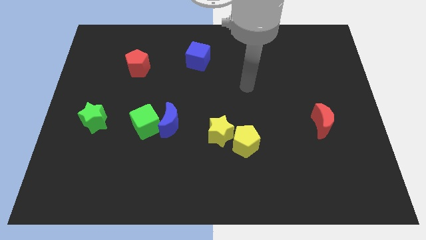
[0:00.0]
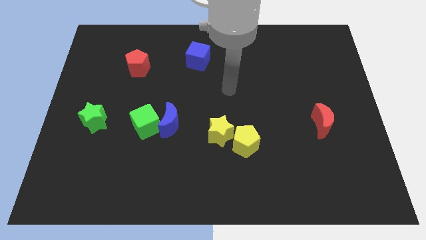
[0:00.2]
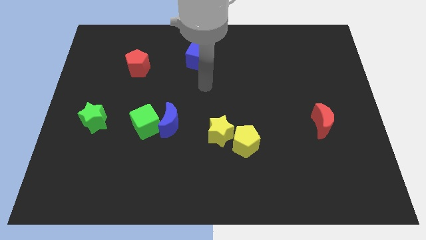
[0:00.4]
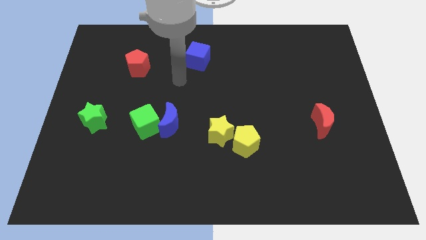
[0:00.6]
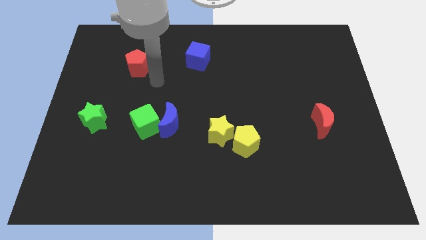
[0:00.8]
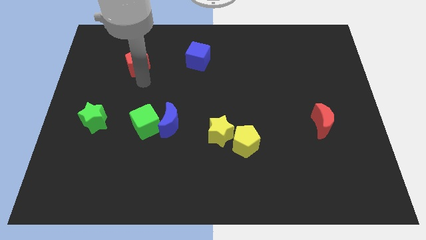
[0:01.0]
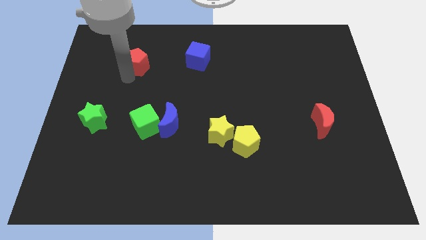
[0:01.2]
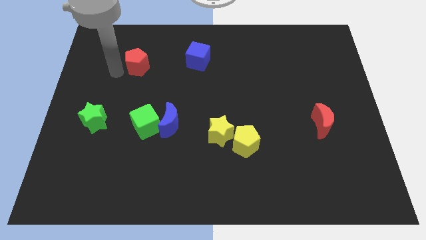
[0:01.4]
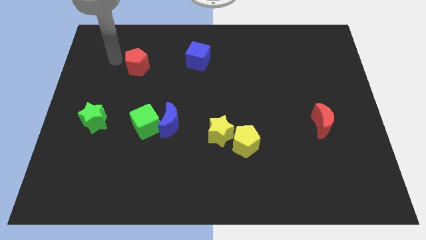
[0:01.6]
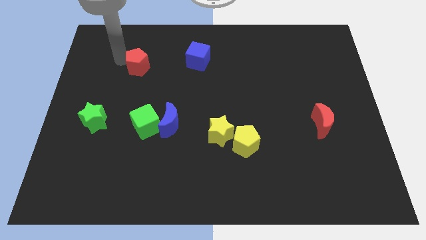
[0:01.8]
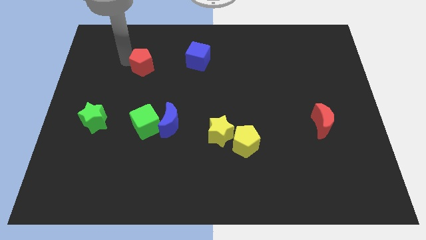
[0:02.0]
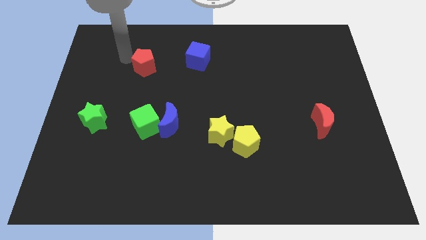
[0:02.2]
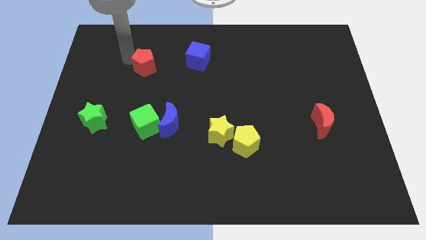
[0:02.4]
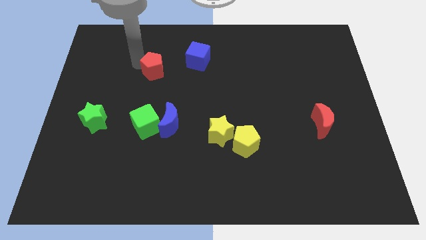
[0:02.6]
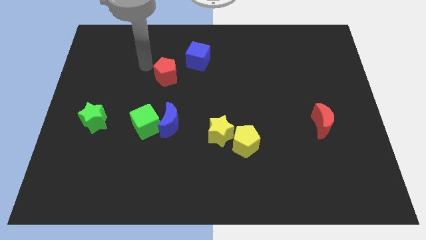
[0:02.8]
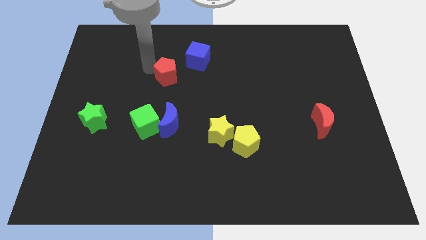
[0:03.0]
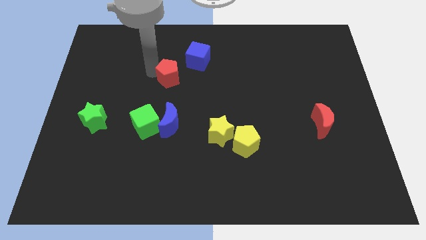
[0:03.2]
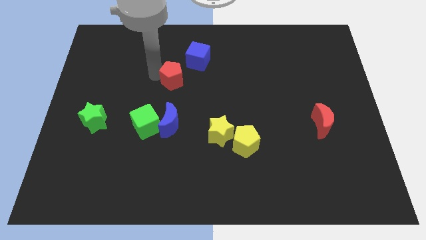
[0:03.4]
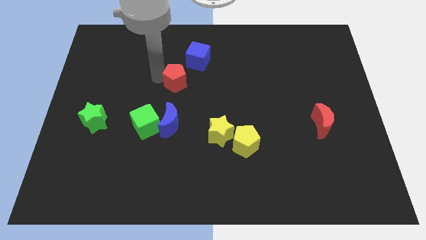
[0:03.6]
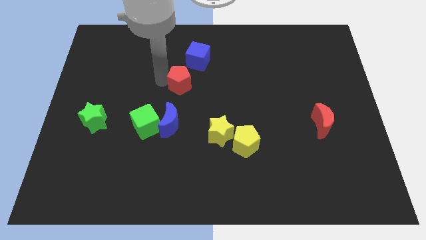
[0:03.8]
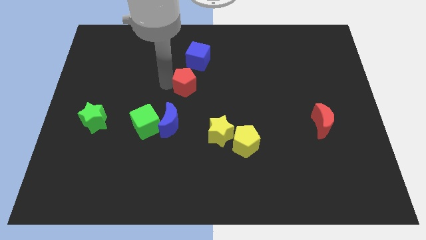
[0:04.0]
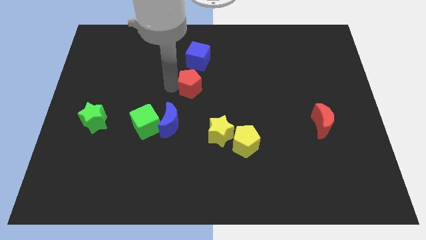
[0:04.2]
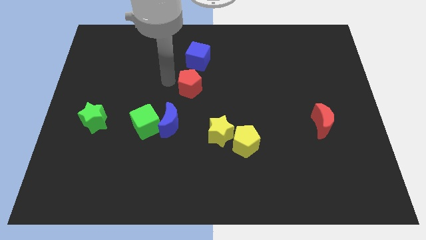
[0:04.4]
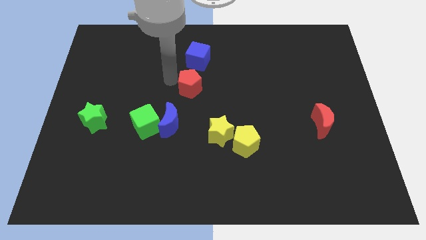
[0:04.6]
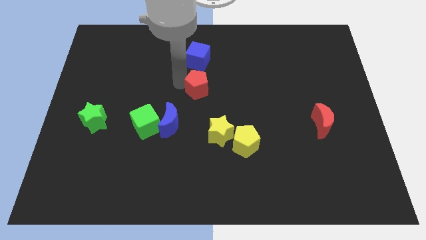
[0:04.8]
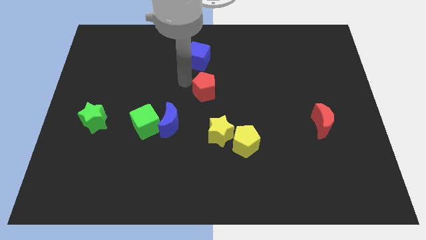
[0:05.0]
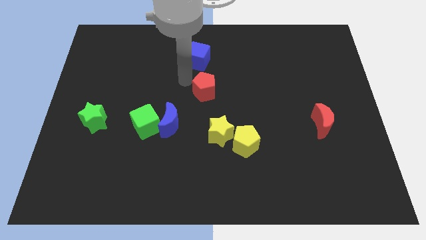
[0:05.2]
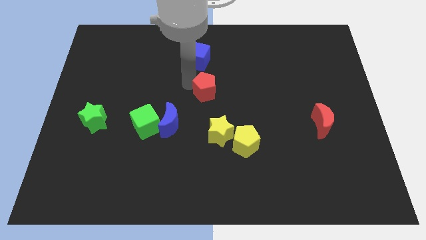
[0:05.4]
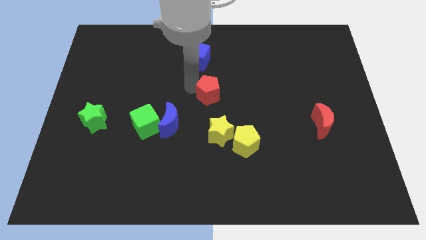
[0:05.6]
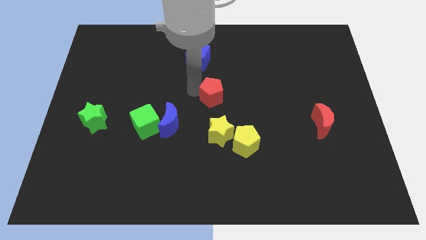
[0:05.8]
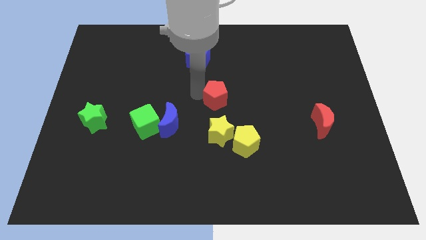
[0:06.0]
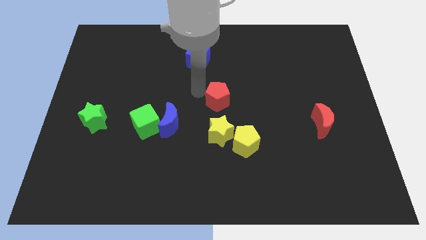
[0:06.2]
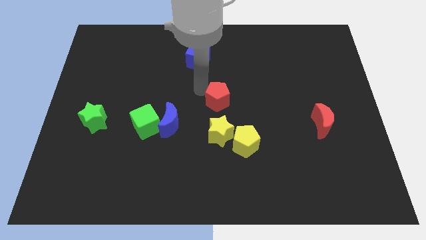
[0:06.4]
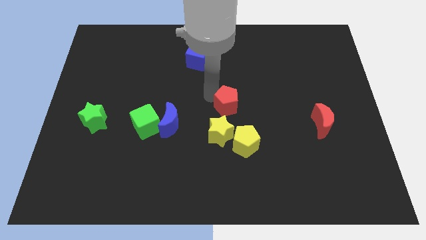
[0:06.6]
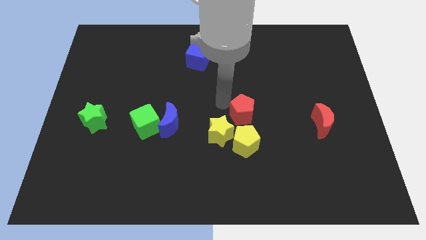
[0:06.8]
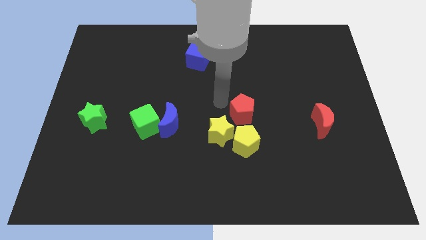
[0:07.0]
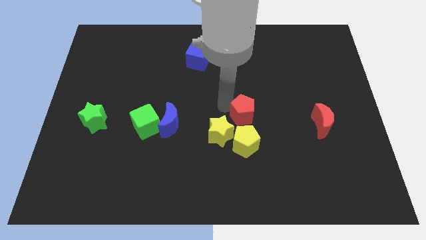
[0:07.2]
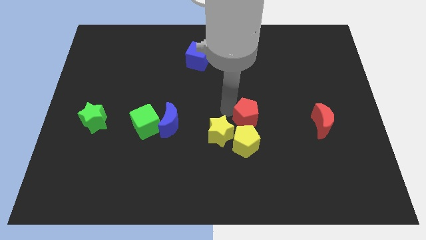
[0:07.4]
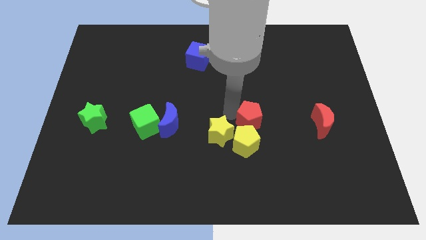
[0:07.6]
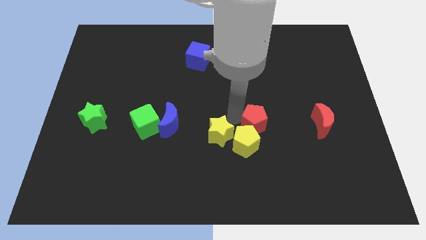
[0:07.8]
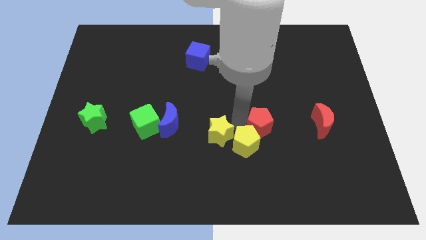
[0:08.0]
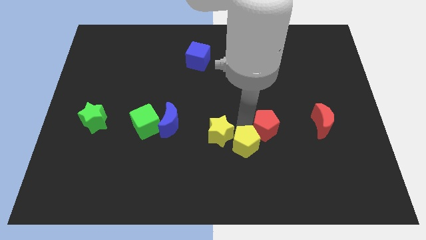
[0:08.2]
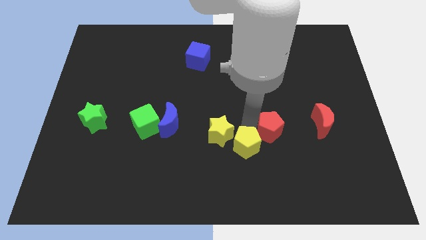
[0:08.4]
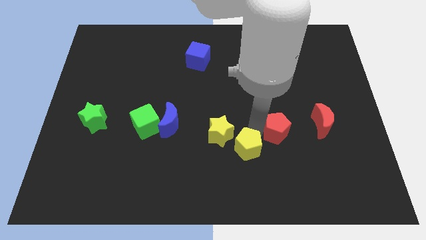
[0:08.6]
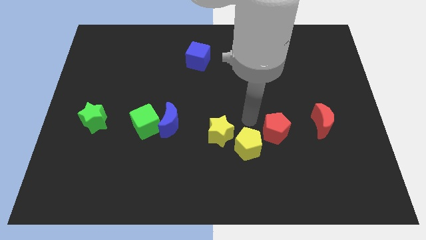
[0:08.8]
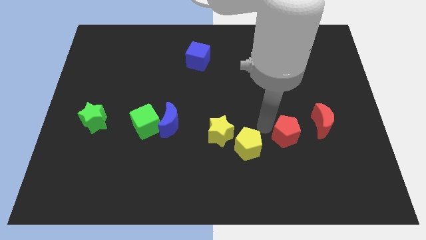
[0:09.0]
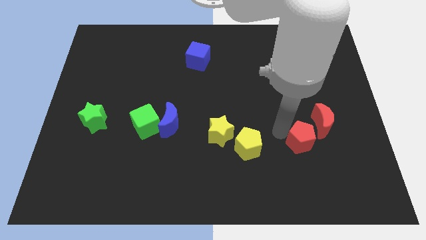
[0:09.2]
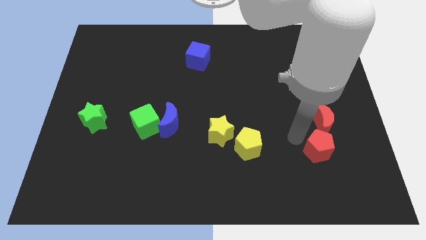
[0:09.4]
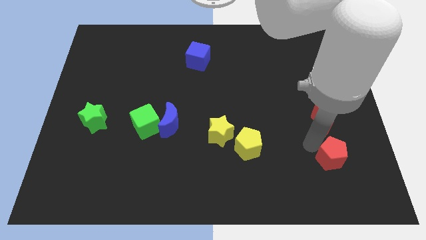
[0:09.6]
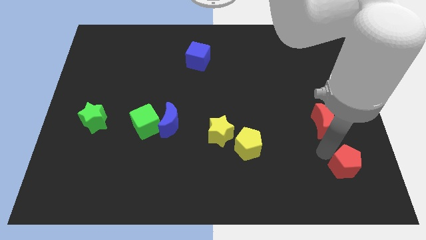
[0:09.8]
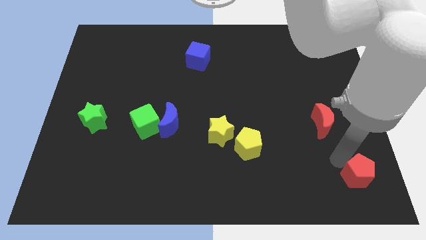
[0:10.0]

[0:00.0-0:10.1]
put the red pentagon to the bottom right of the board

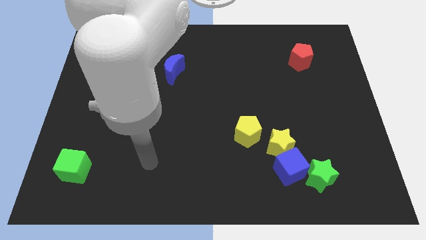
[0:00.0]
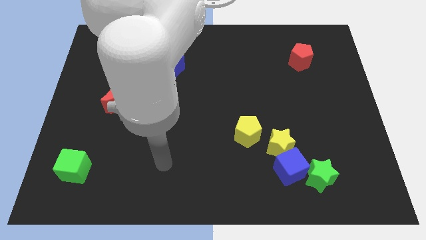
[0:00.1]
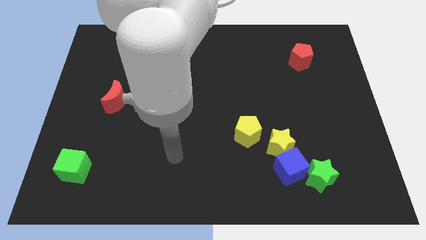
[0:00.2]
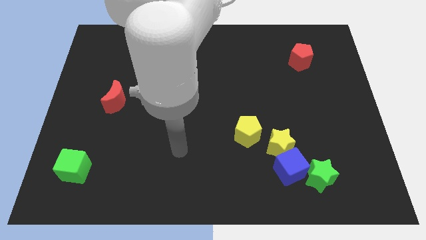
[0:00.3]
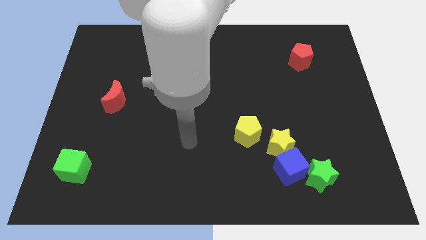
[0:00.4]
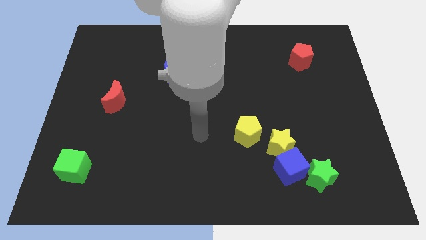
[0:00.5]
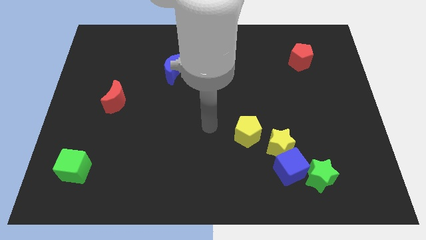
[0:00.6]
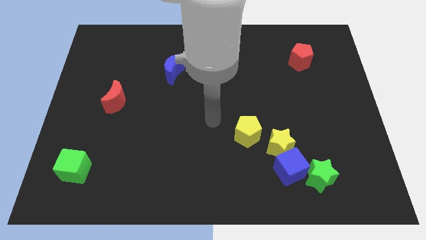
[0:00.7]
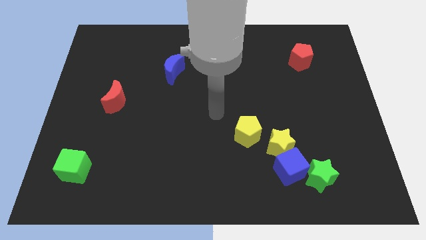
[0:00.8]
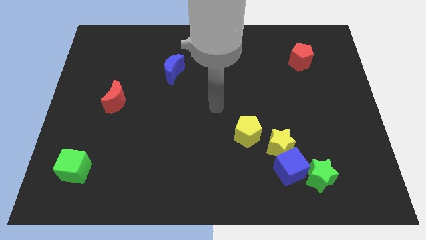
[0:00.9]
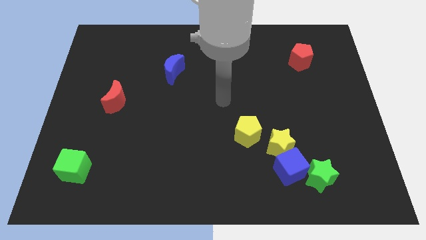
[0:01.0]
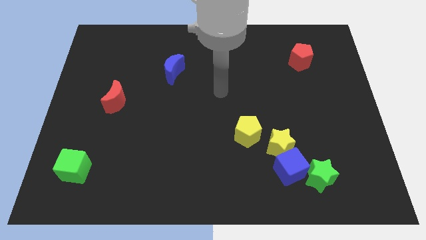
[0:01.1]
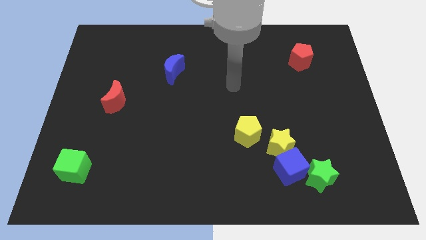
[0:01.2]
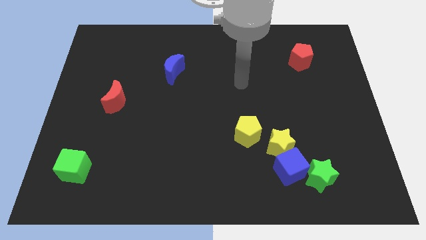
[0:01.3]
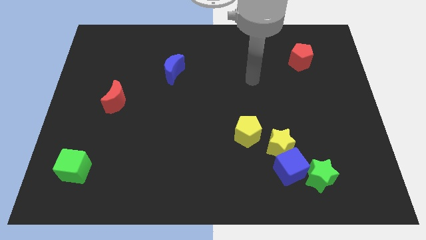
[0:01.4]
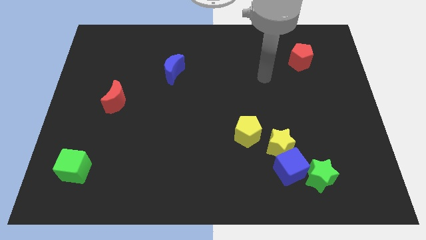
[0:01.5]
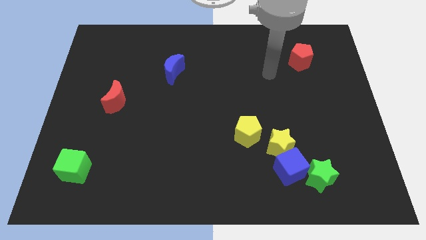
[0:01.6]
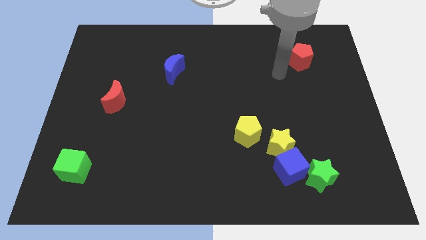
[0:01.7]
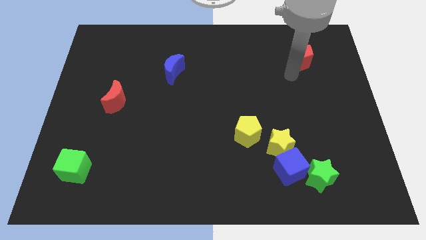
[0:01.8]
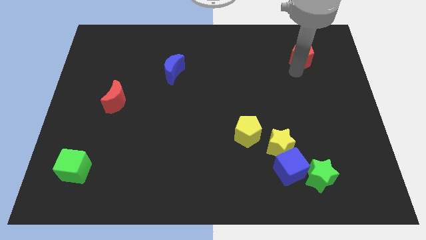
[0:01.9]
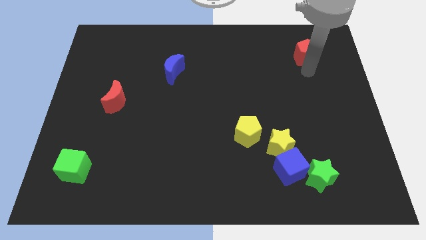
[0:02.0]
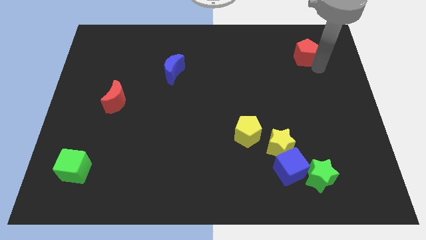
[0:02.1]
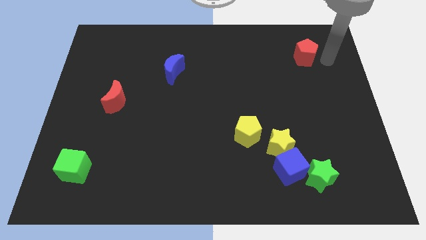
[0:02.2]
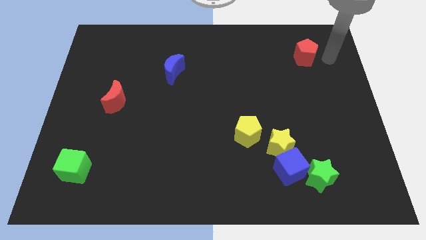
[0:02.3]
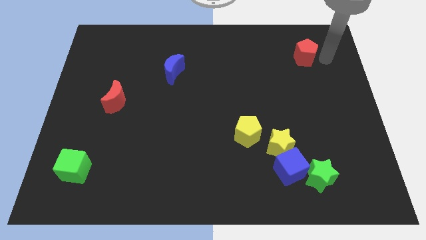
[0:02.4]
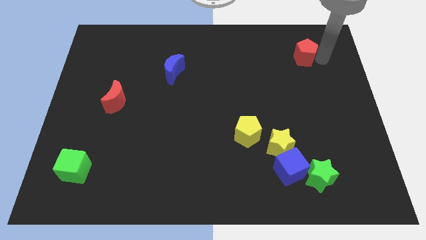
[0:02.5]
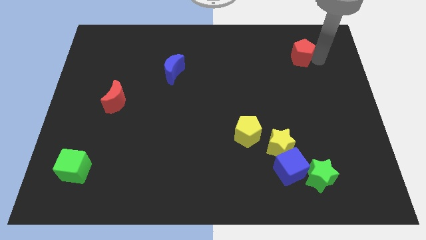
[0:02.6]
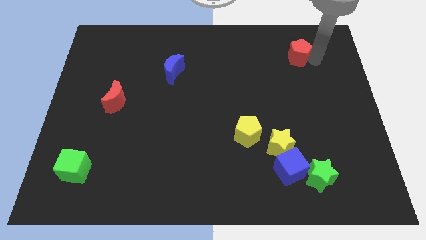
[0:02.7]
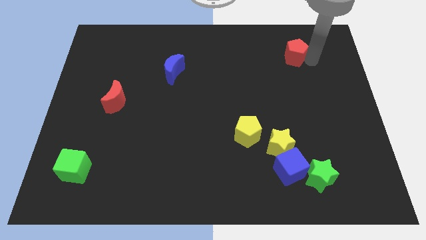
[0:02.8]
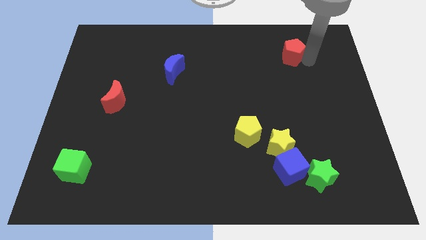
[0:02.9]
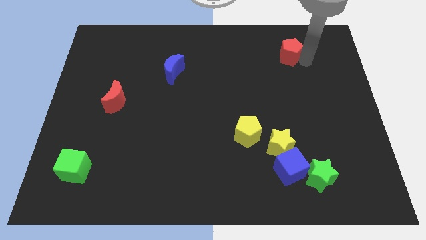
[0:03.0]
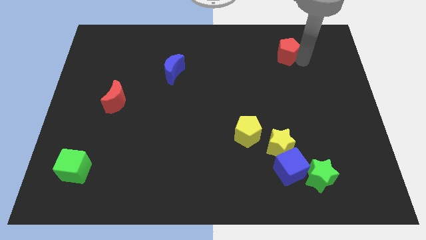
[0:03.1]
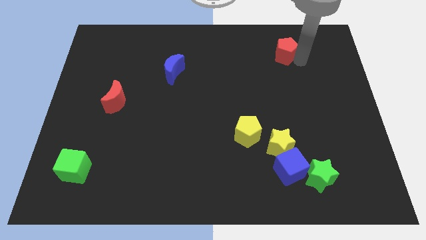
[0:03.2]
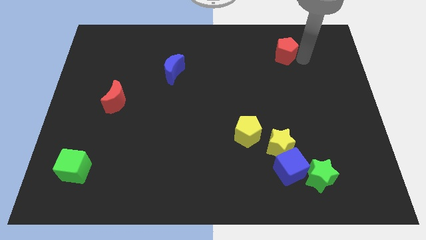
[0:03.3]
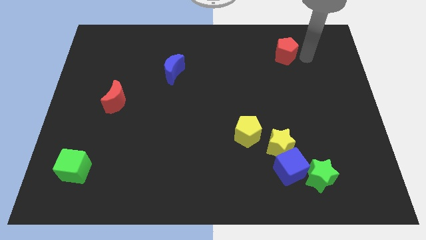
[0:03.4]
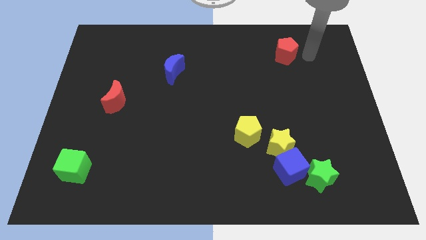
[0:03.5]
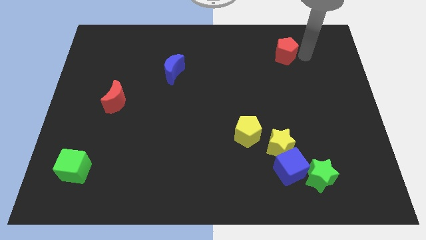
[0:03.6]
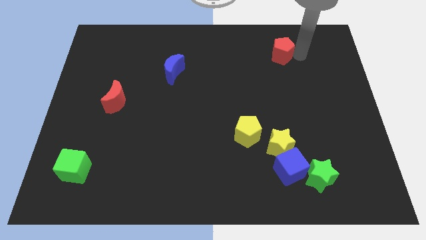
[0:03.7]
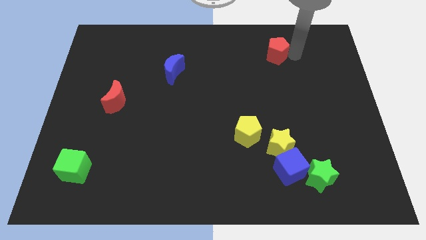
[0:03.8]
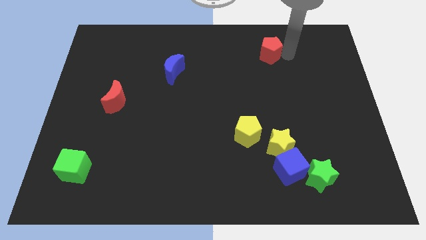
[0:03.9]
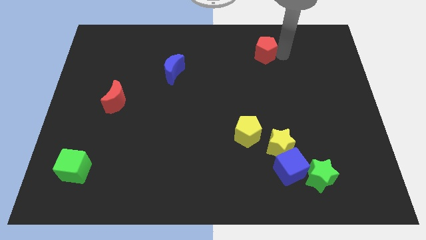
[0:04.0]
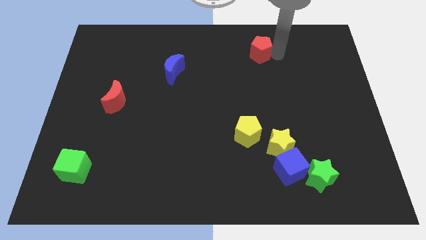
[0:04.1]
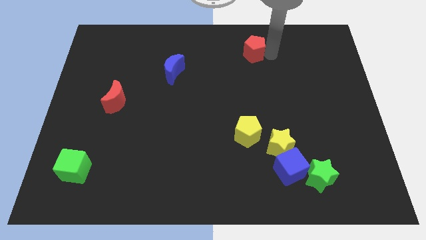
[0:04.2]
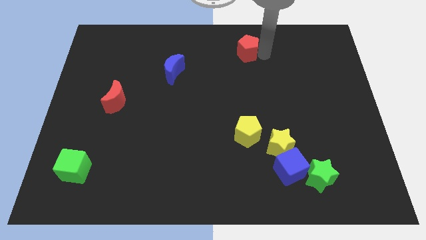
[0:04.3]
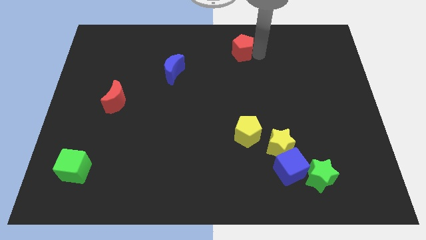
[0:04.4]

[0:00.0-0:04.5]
move the red pentagon to the top side
